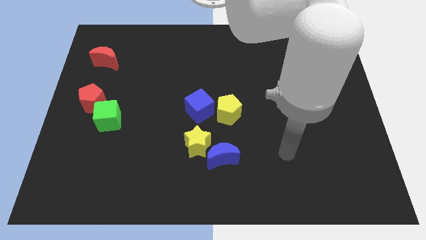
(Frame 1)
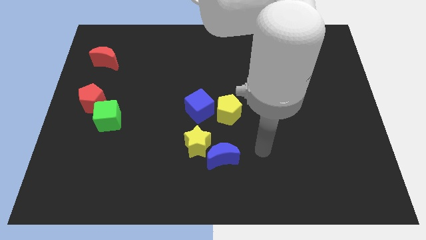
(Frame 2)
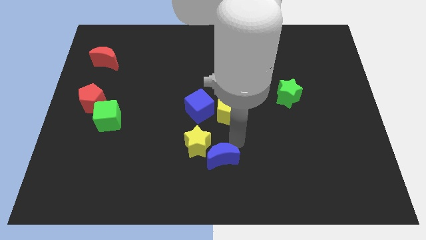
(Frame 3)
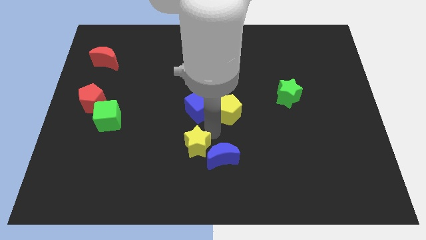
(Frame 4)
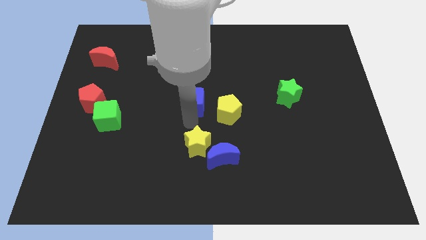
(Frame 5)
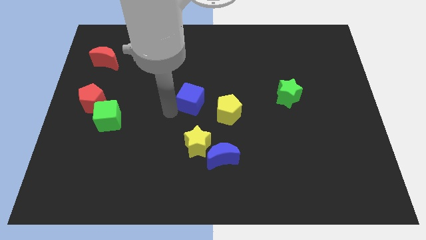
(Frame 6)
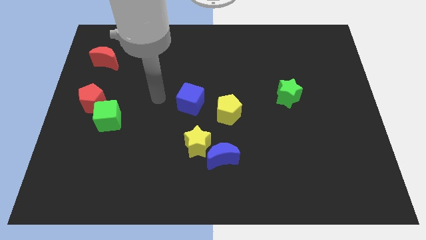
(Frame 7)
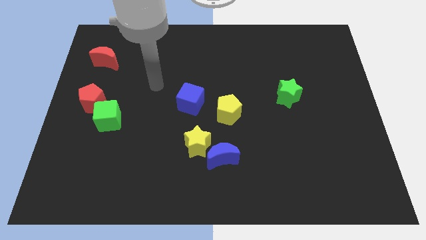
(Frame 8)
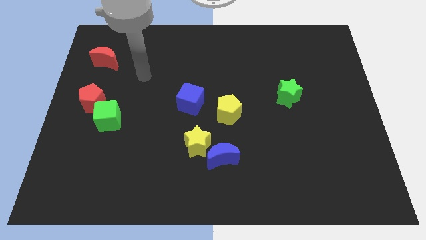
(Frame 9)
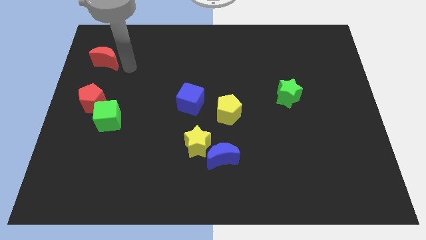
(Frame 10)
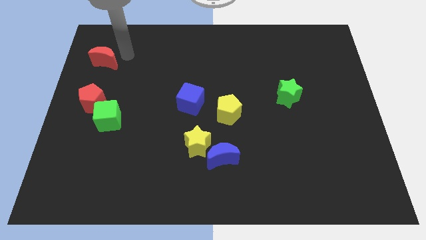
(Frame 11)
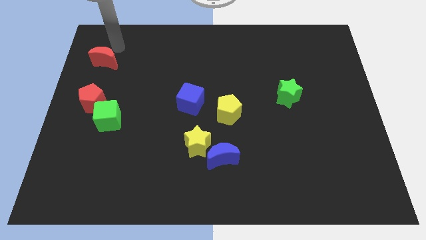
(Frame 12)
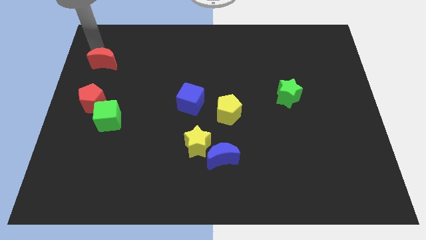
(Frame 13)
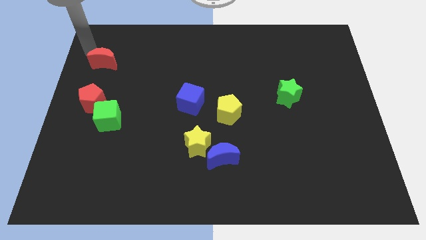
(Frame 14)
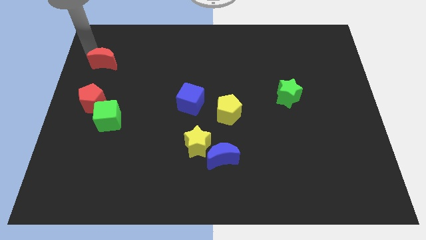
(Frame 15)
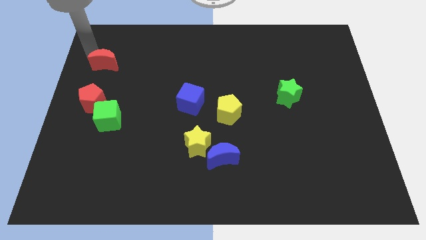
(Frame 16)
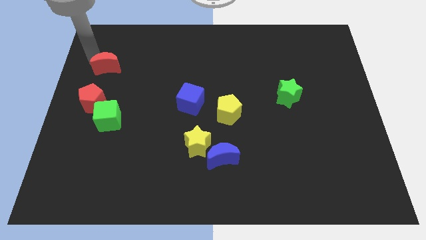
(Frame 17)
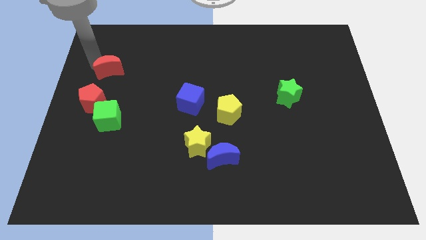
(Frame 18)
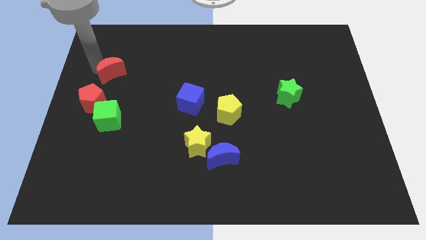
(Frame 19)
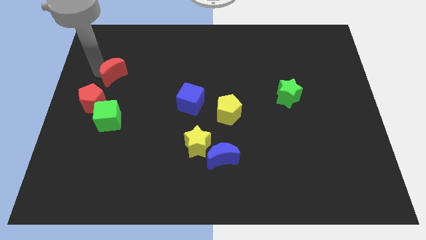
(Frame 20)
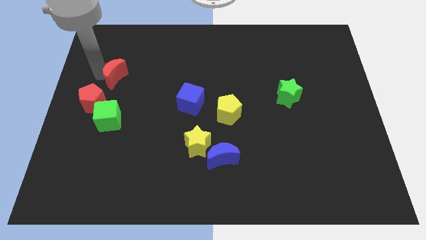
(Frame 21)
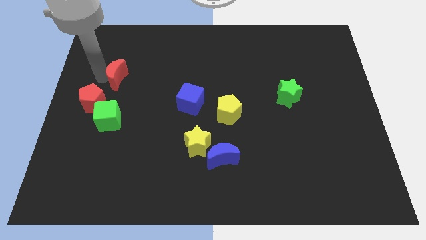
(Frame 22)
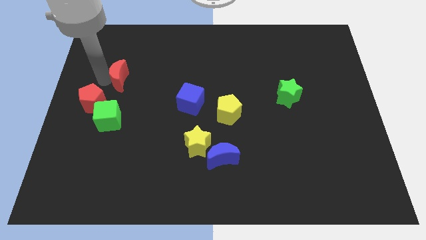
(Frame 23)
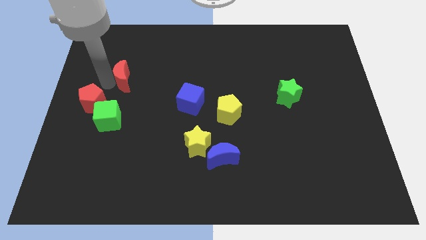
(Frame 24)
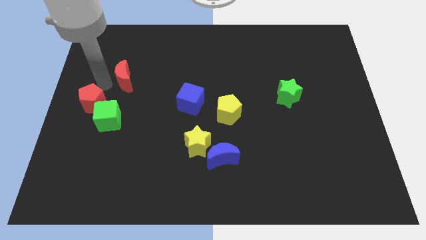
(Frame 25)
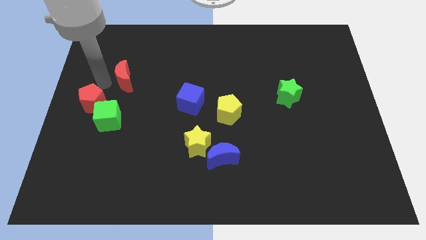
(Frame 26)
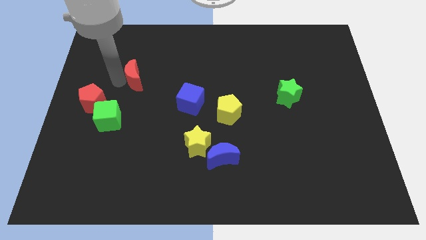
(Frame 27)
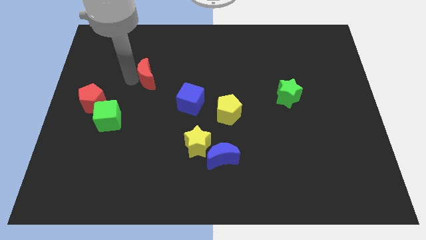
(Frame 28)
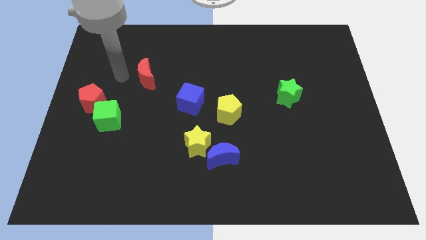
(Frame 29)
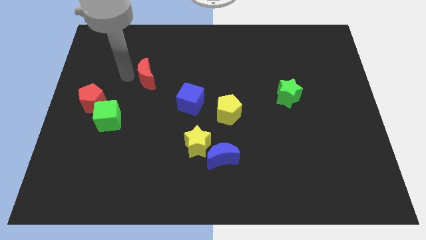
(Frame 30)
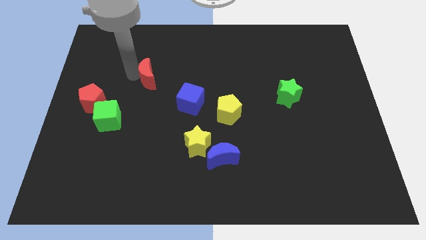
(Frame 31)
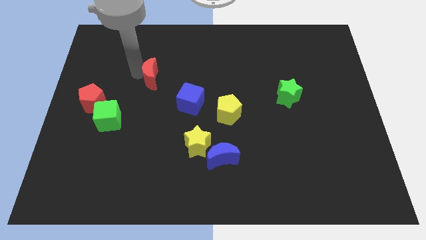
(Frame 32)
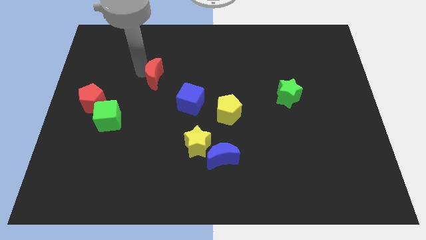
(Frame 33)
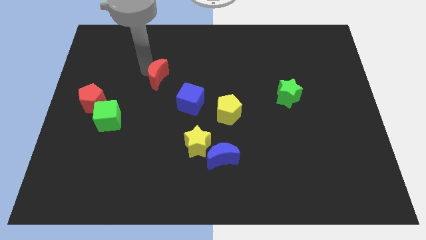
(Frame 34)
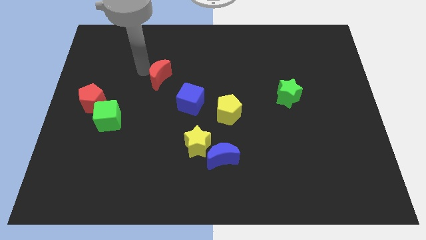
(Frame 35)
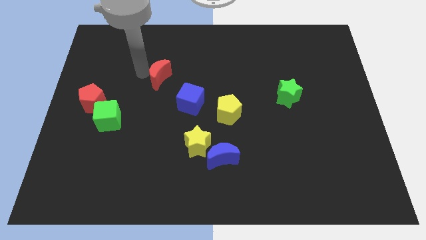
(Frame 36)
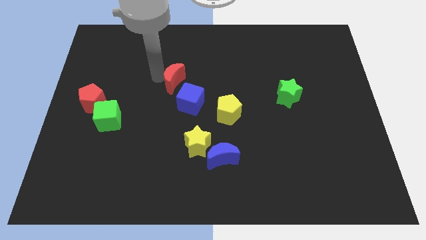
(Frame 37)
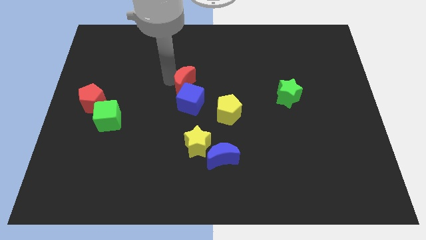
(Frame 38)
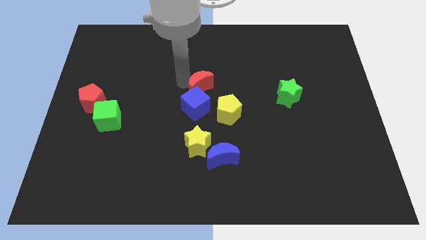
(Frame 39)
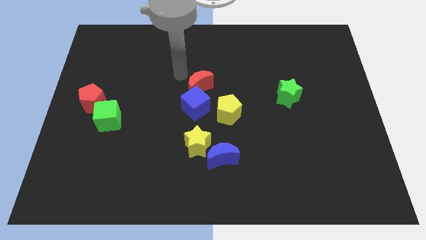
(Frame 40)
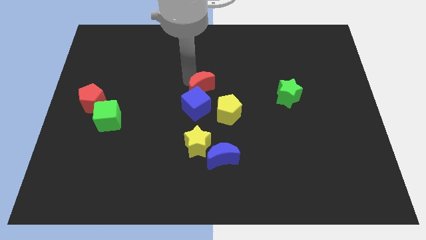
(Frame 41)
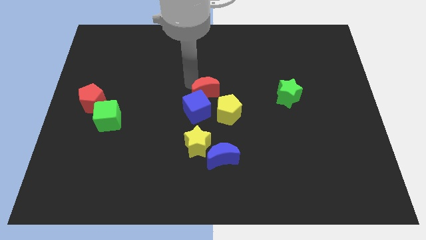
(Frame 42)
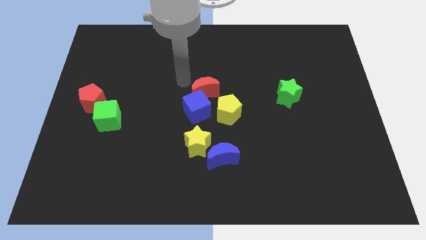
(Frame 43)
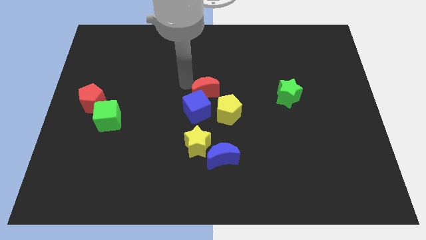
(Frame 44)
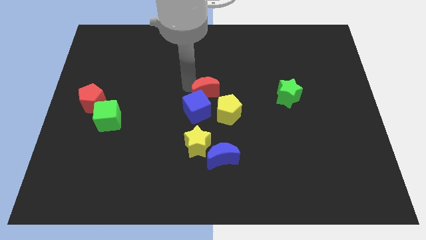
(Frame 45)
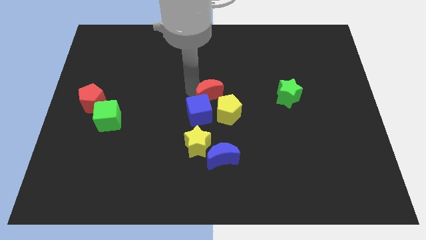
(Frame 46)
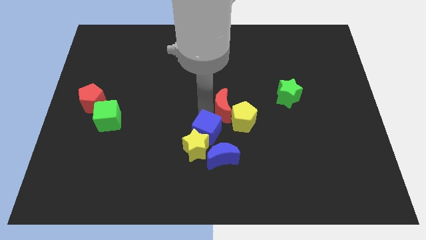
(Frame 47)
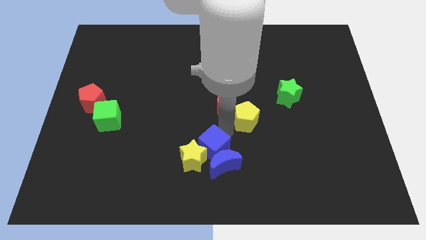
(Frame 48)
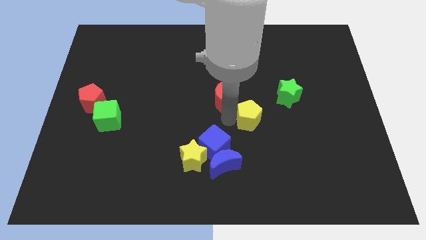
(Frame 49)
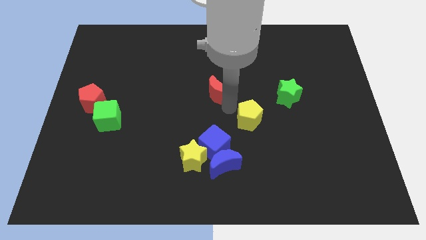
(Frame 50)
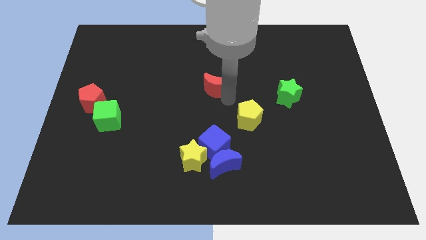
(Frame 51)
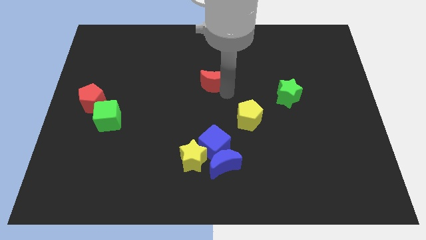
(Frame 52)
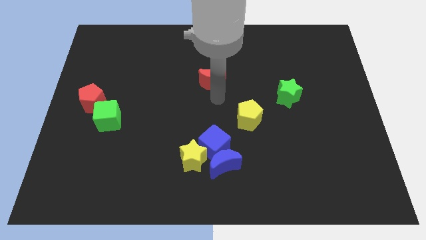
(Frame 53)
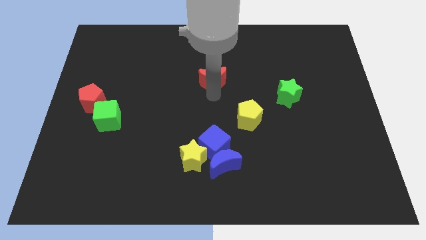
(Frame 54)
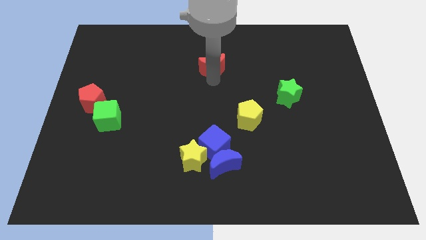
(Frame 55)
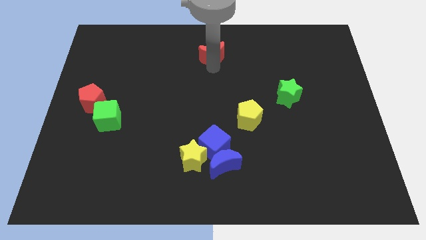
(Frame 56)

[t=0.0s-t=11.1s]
slide the red moon to the top
